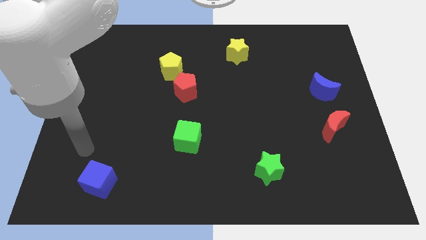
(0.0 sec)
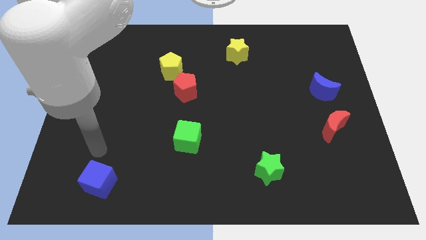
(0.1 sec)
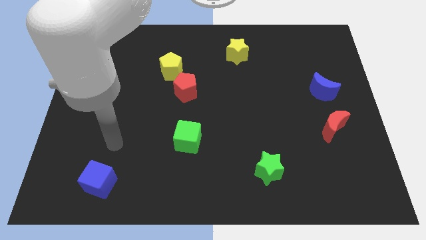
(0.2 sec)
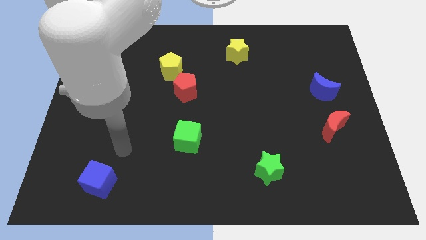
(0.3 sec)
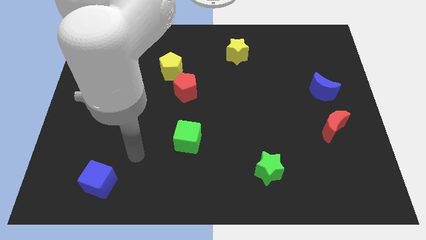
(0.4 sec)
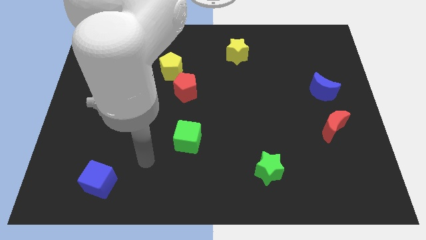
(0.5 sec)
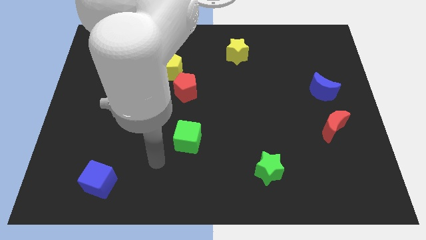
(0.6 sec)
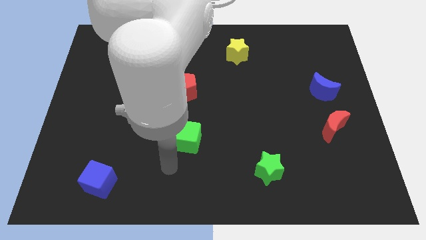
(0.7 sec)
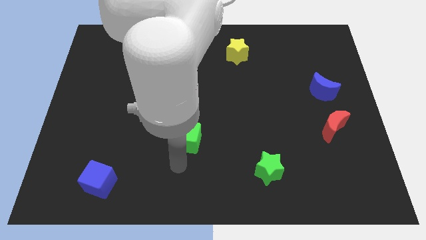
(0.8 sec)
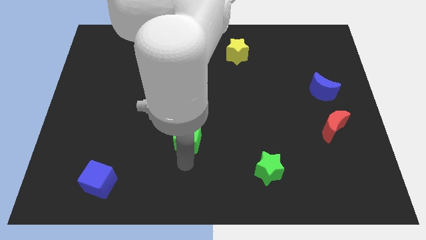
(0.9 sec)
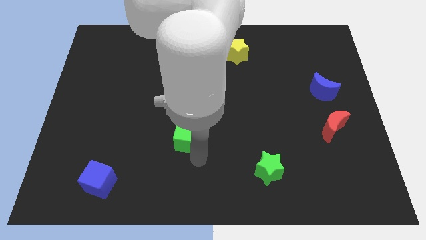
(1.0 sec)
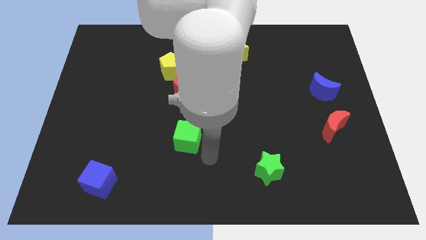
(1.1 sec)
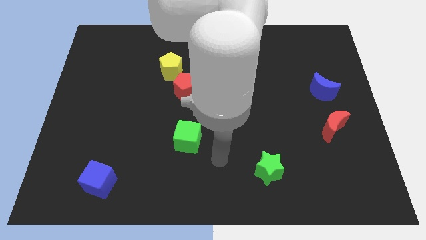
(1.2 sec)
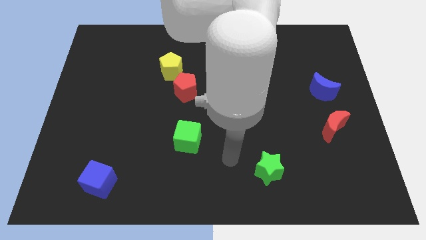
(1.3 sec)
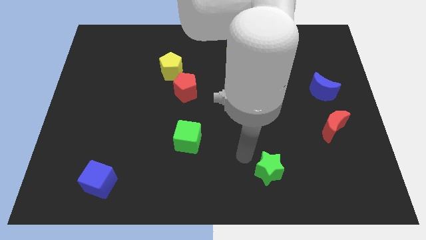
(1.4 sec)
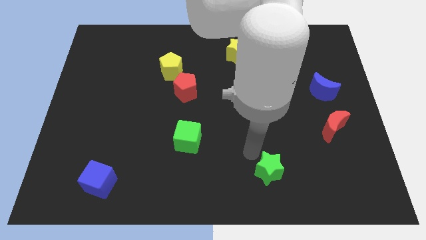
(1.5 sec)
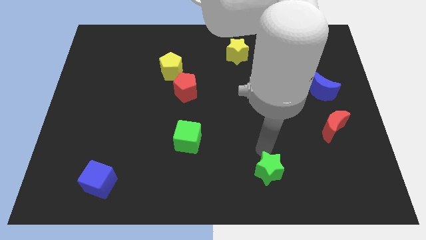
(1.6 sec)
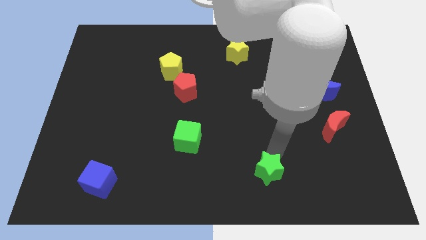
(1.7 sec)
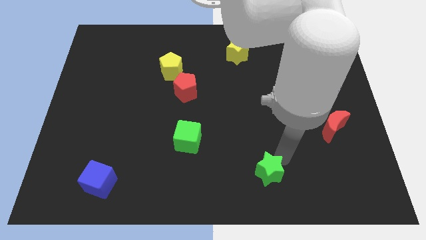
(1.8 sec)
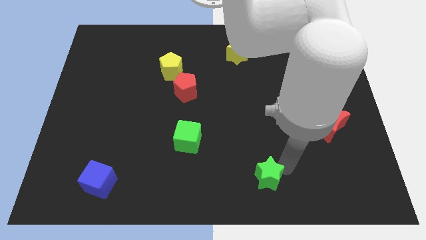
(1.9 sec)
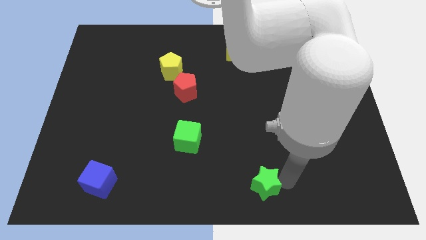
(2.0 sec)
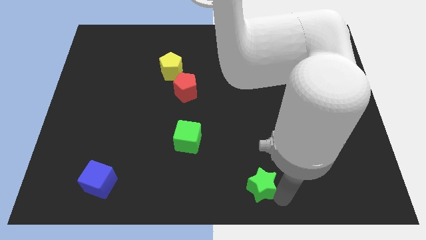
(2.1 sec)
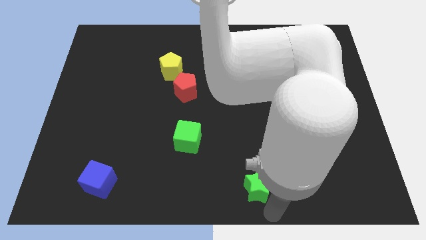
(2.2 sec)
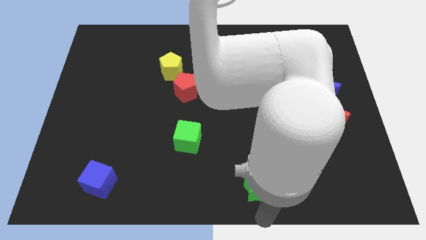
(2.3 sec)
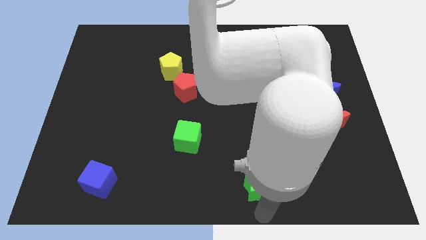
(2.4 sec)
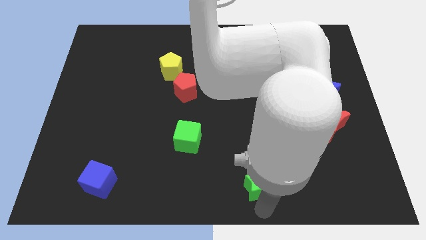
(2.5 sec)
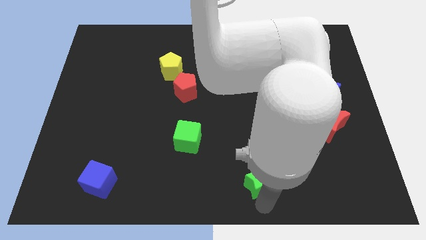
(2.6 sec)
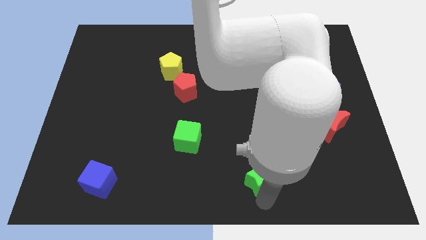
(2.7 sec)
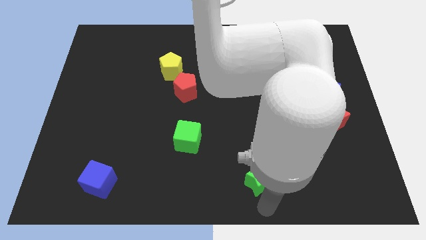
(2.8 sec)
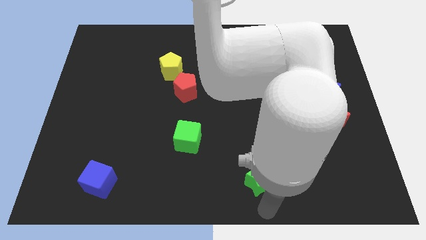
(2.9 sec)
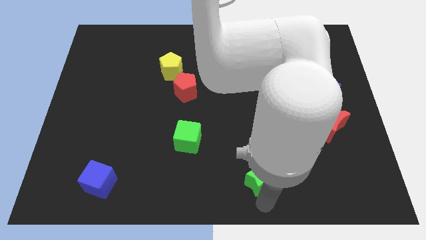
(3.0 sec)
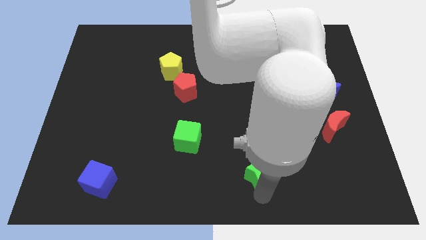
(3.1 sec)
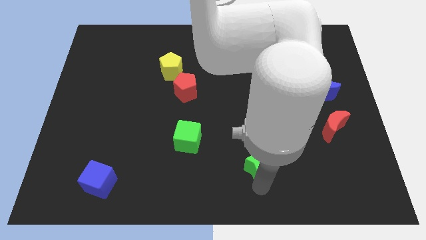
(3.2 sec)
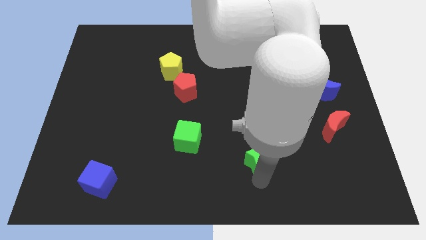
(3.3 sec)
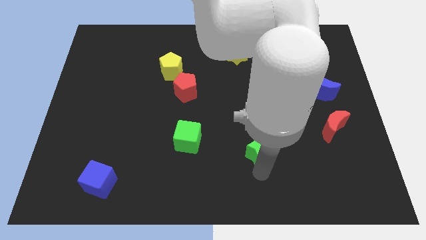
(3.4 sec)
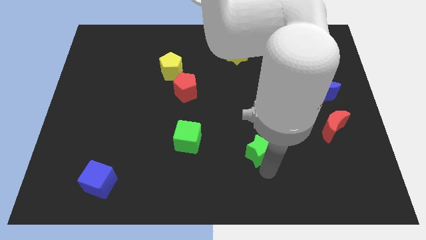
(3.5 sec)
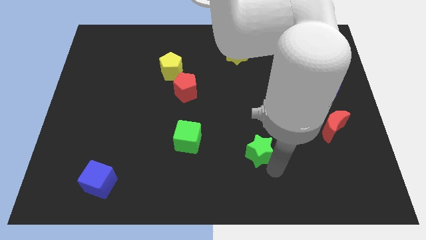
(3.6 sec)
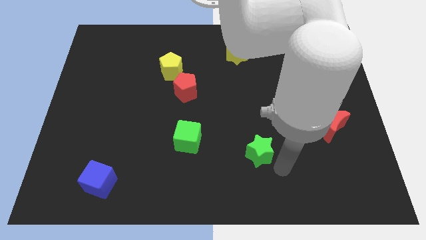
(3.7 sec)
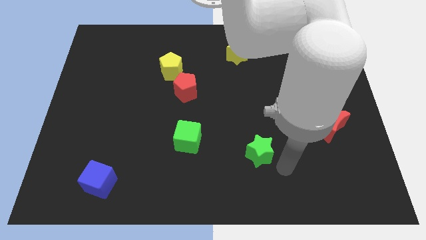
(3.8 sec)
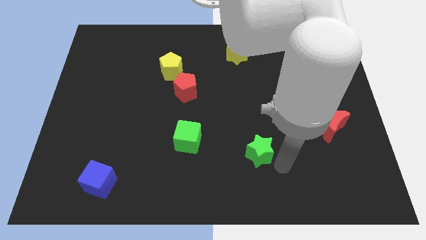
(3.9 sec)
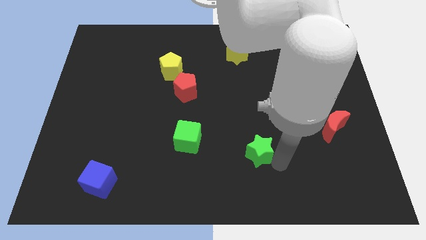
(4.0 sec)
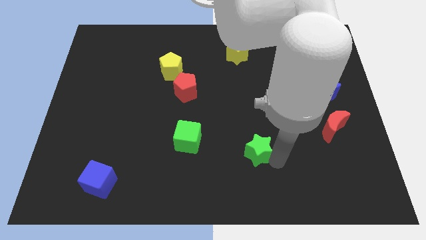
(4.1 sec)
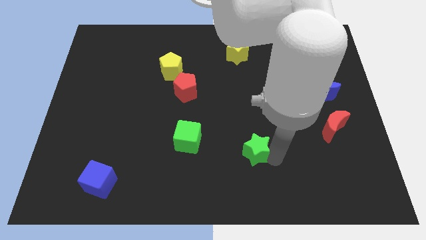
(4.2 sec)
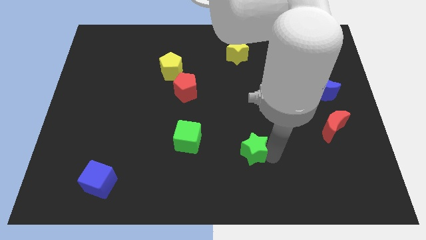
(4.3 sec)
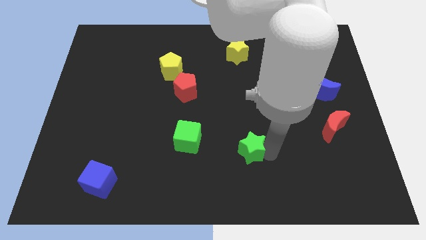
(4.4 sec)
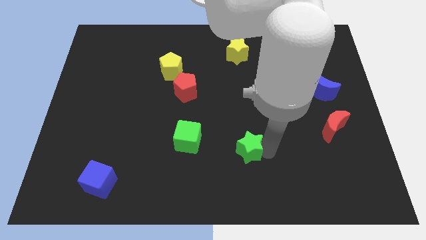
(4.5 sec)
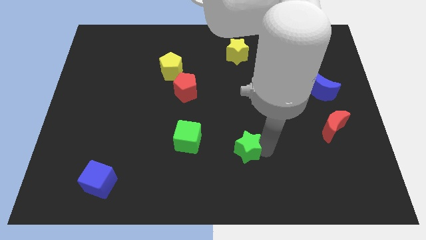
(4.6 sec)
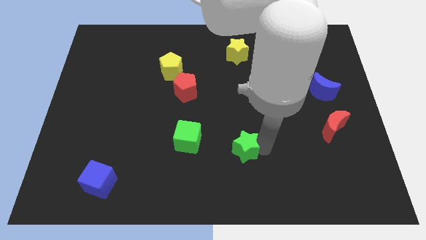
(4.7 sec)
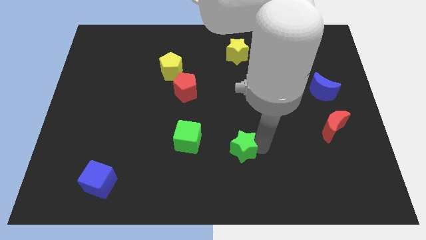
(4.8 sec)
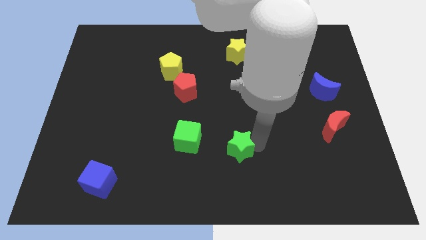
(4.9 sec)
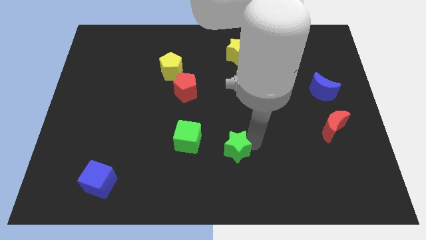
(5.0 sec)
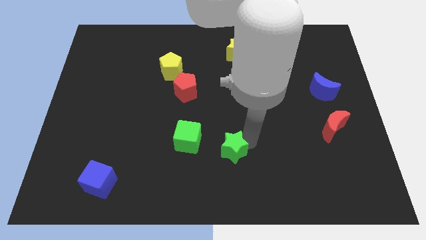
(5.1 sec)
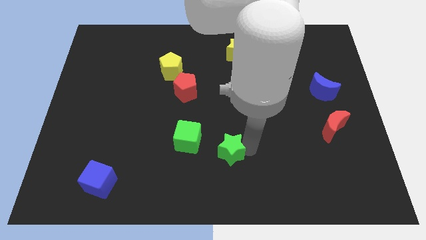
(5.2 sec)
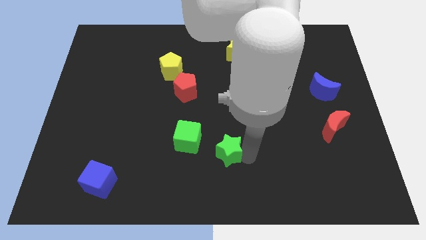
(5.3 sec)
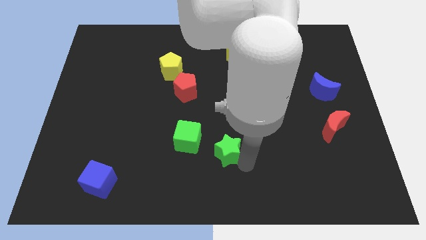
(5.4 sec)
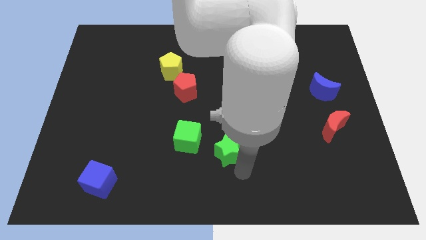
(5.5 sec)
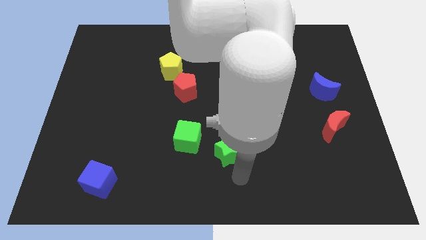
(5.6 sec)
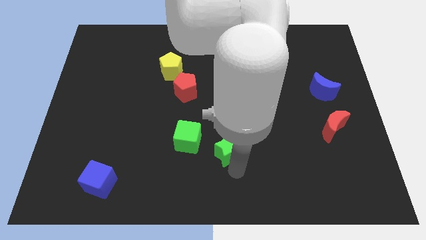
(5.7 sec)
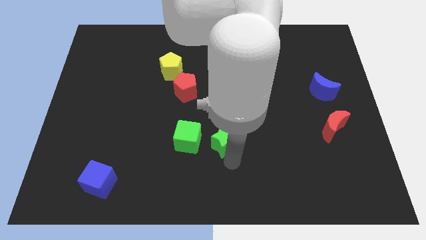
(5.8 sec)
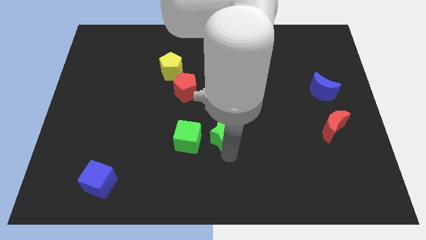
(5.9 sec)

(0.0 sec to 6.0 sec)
push the green star diagonally up and to the right of the green cube
